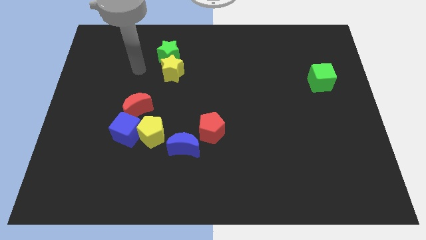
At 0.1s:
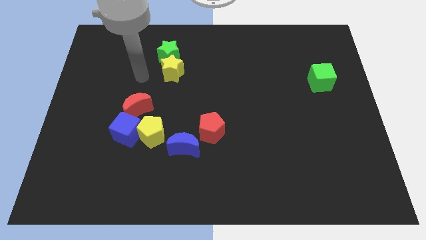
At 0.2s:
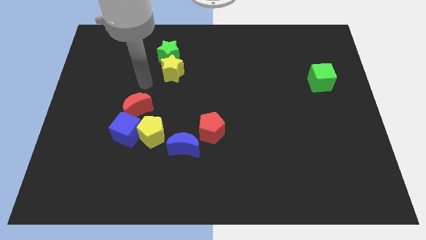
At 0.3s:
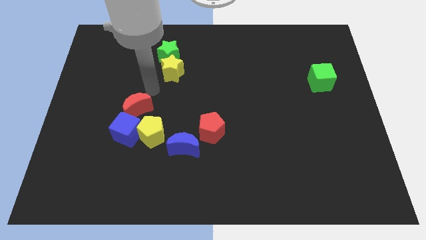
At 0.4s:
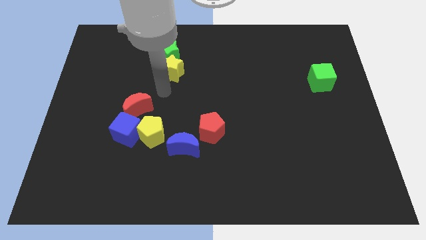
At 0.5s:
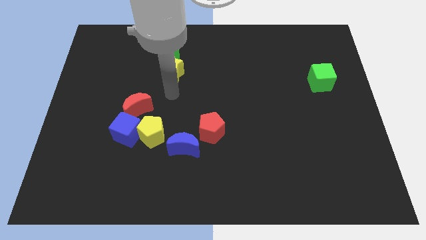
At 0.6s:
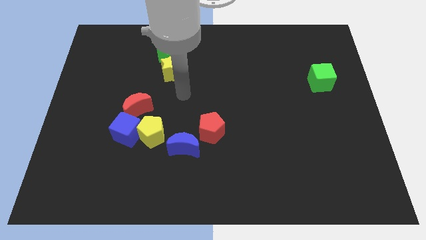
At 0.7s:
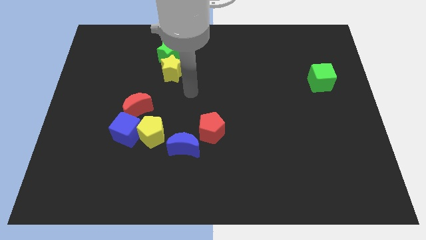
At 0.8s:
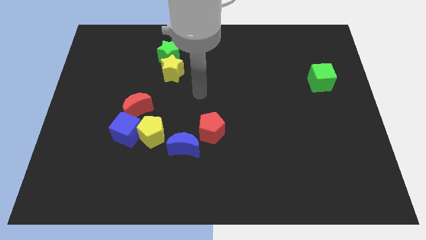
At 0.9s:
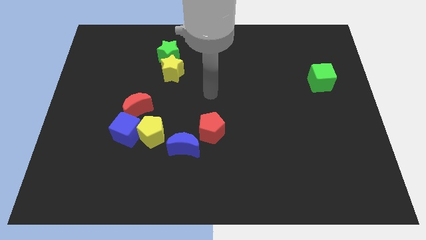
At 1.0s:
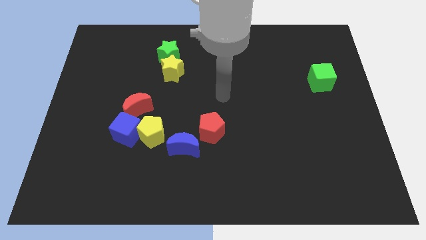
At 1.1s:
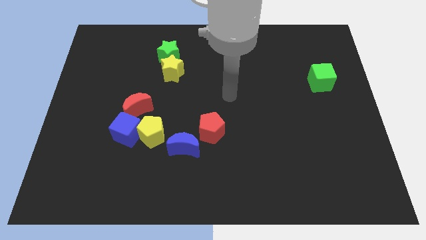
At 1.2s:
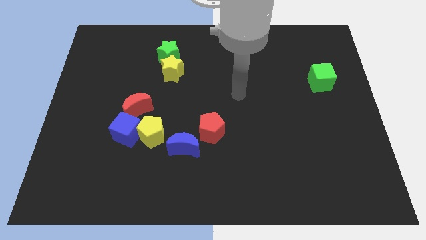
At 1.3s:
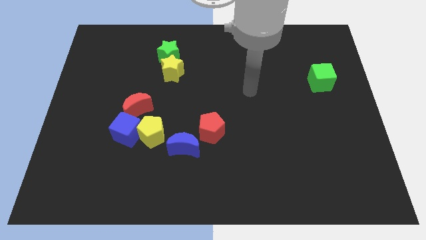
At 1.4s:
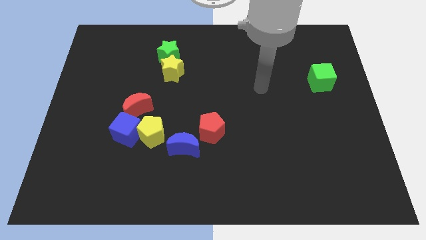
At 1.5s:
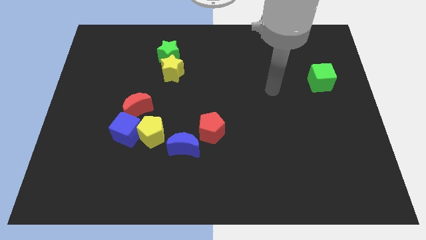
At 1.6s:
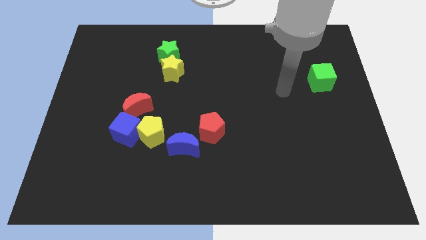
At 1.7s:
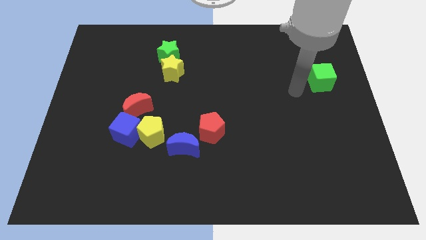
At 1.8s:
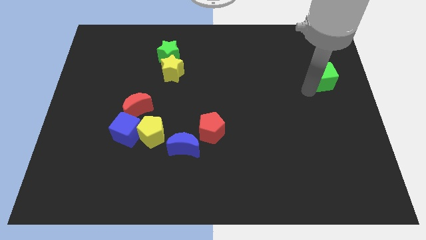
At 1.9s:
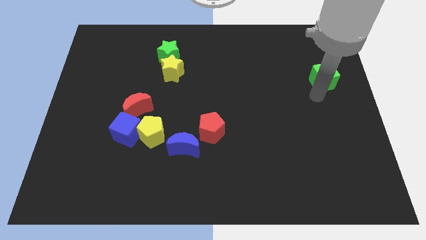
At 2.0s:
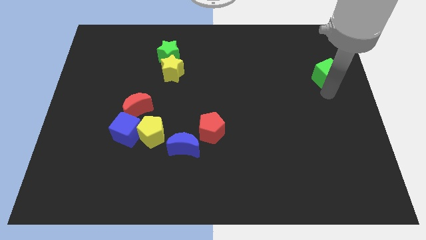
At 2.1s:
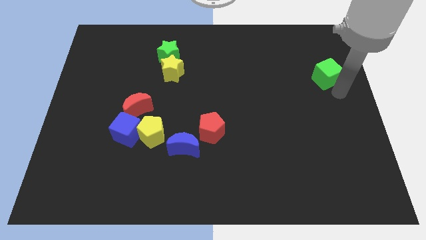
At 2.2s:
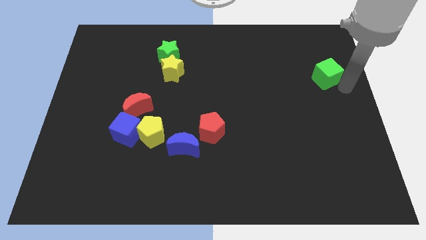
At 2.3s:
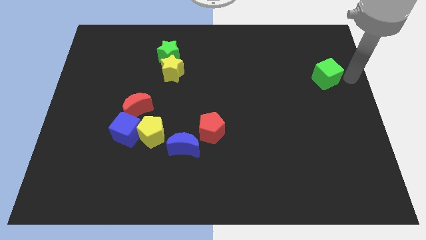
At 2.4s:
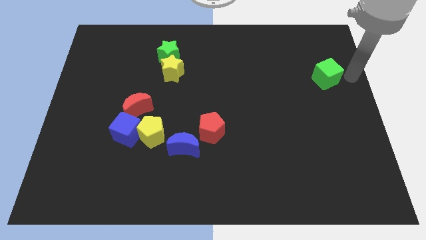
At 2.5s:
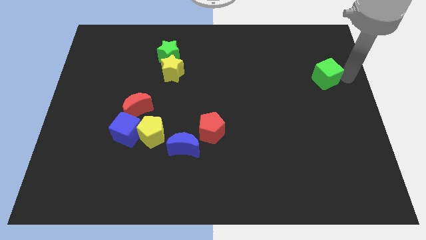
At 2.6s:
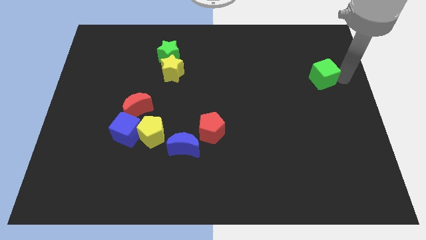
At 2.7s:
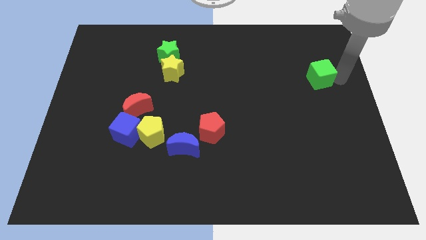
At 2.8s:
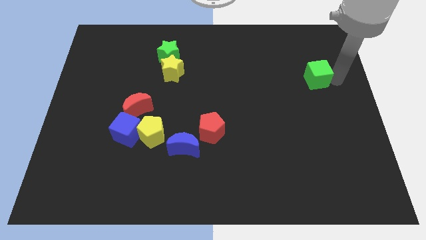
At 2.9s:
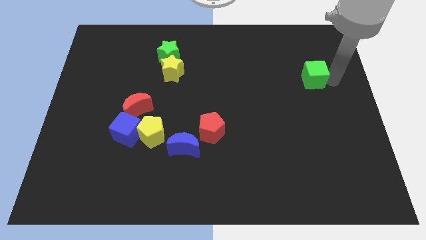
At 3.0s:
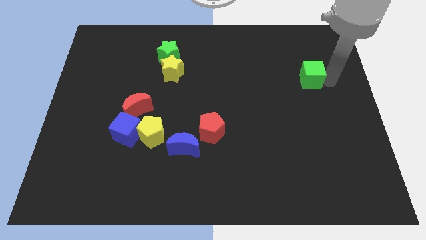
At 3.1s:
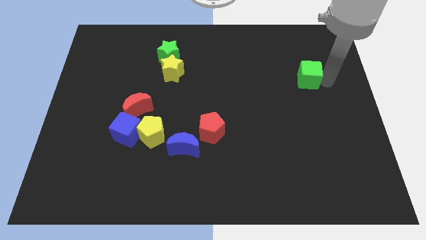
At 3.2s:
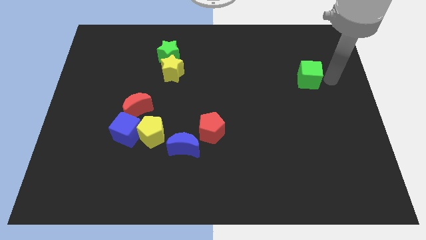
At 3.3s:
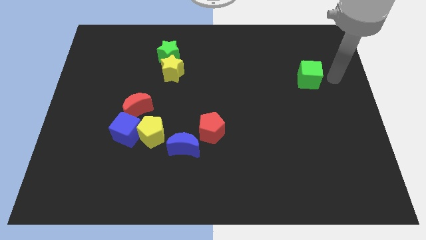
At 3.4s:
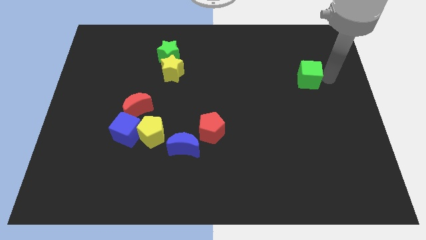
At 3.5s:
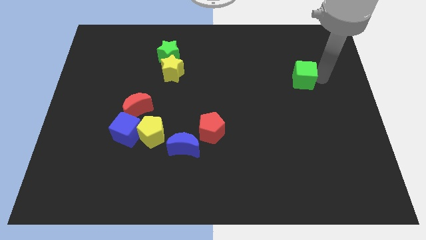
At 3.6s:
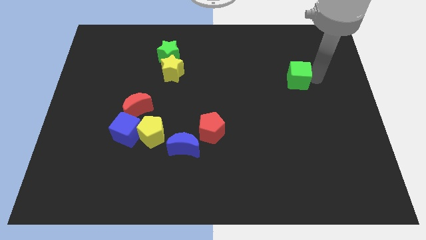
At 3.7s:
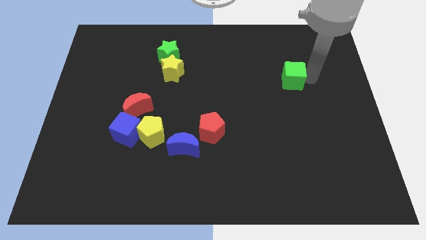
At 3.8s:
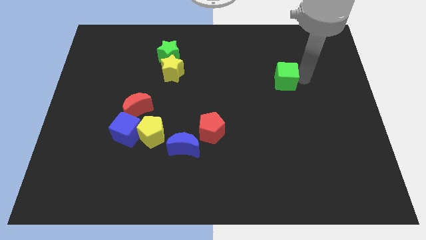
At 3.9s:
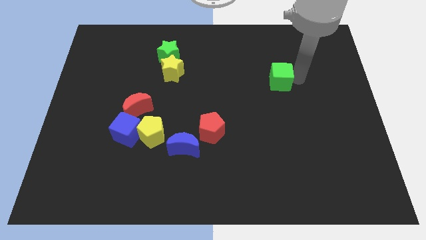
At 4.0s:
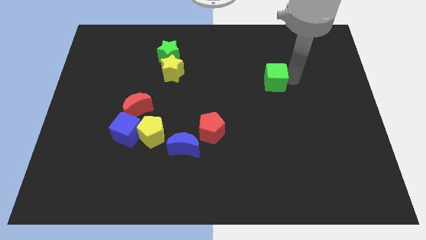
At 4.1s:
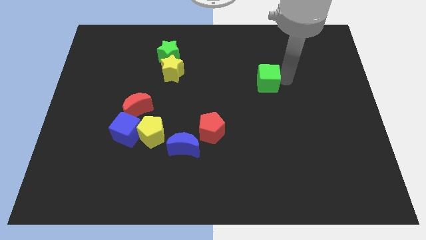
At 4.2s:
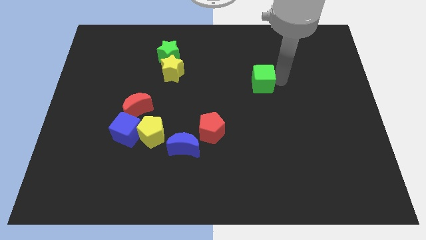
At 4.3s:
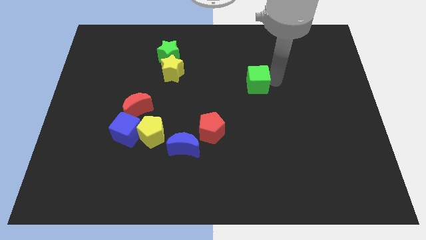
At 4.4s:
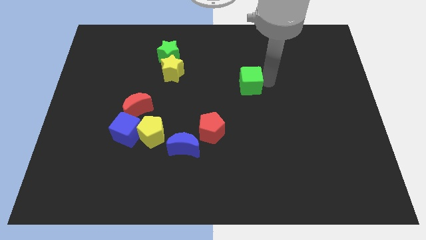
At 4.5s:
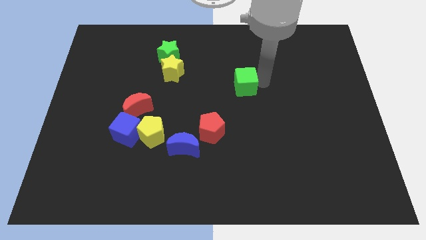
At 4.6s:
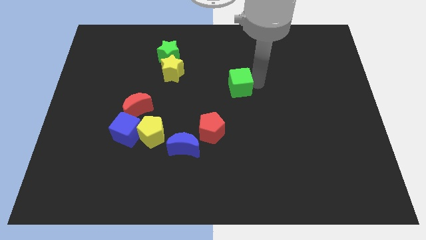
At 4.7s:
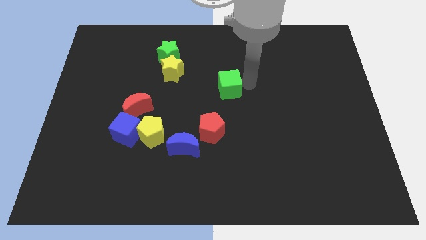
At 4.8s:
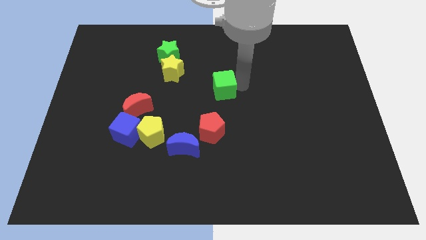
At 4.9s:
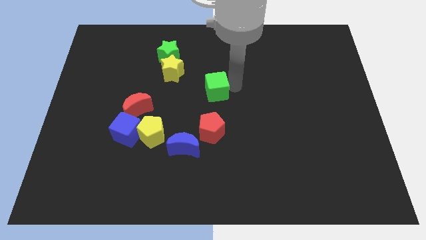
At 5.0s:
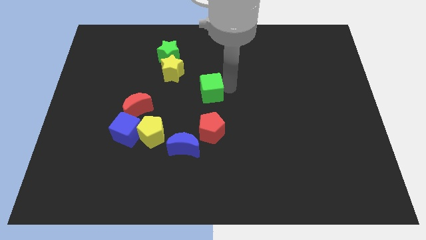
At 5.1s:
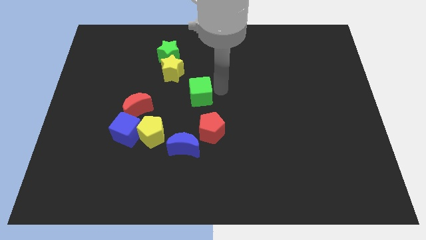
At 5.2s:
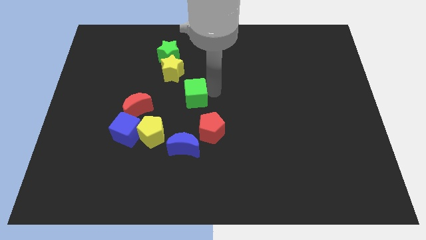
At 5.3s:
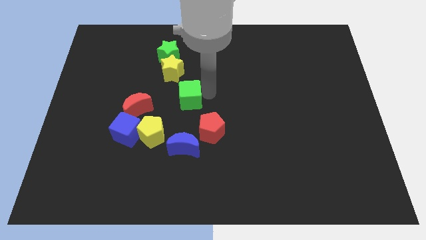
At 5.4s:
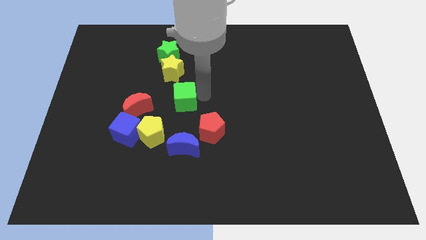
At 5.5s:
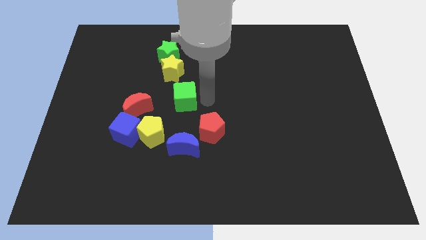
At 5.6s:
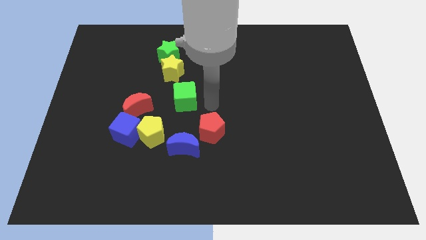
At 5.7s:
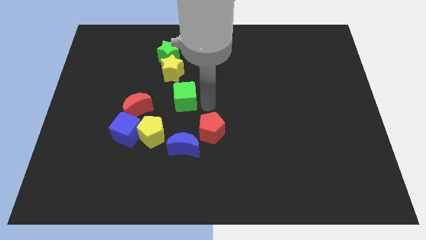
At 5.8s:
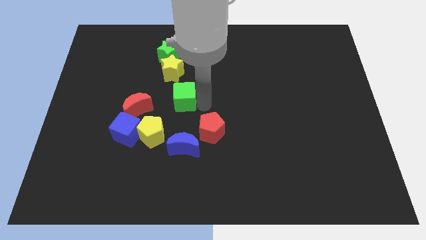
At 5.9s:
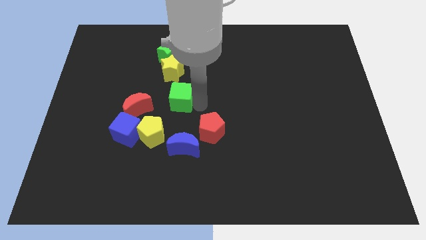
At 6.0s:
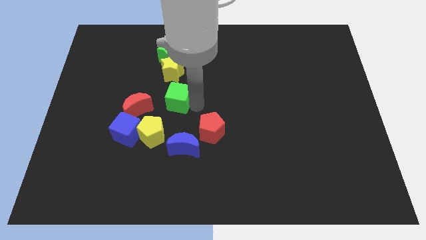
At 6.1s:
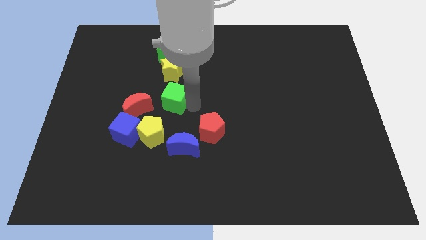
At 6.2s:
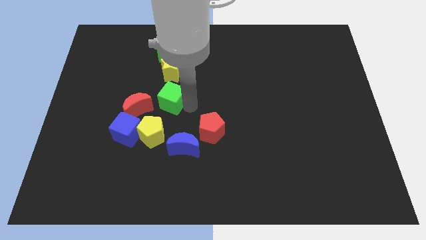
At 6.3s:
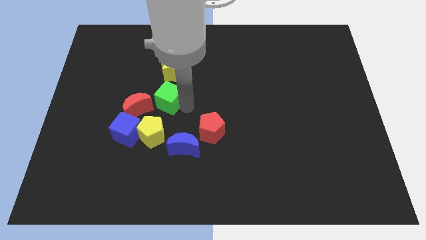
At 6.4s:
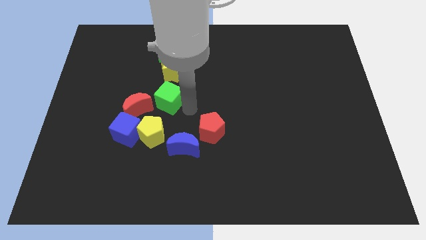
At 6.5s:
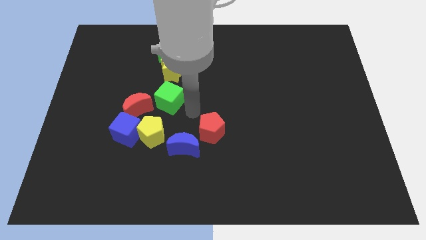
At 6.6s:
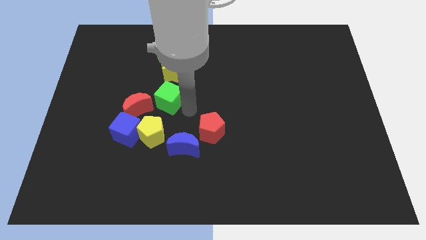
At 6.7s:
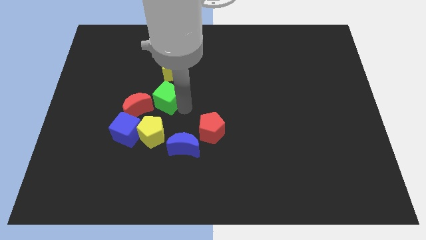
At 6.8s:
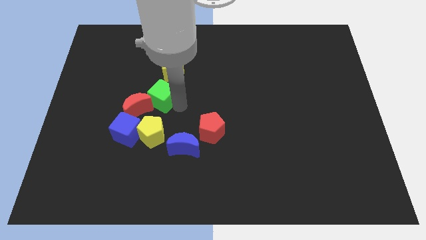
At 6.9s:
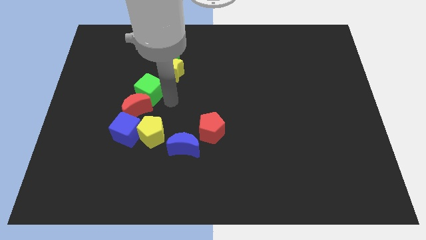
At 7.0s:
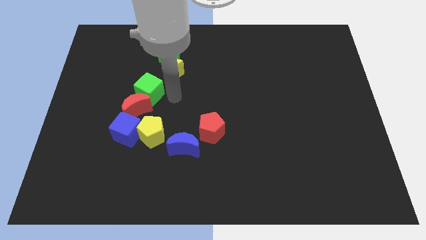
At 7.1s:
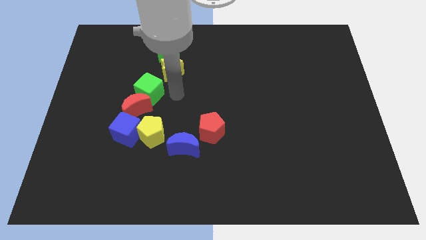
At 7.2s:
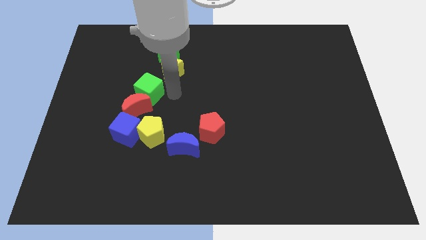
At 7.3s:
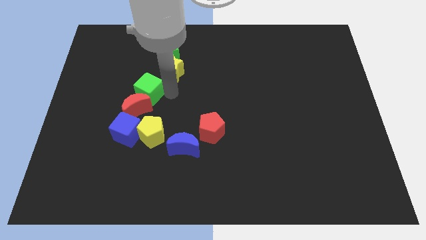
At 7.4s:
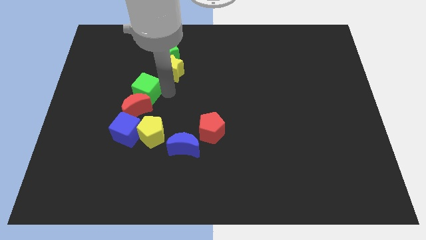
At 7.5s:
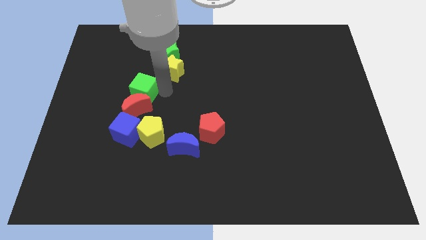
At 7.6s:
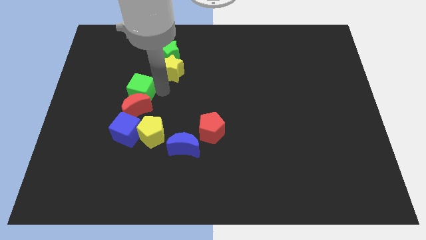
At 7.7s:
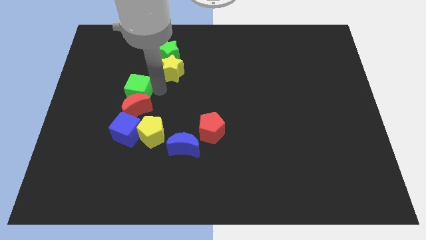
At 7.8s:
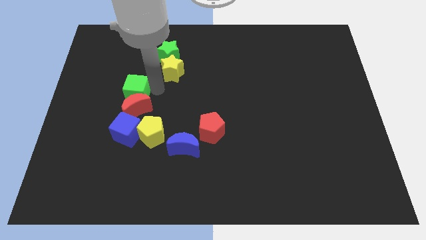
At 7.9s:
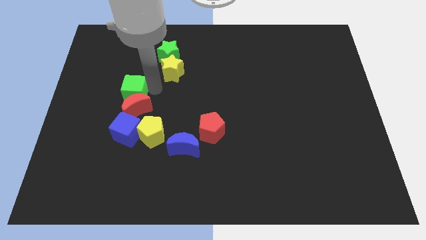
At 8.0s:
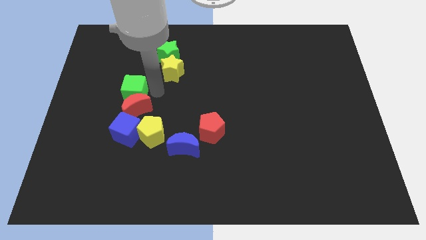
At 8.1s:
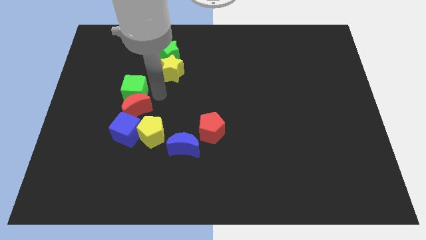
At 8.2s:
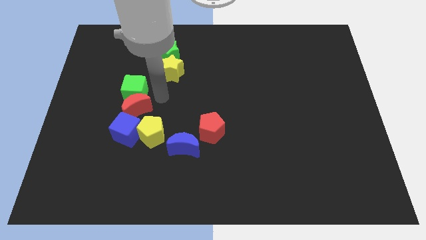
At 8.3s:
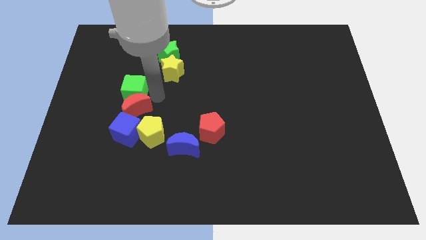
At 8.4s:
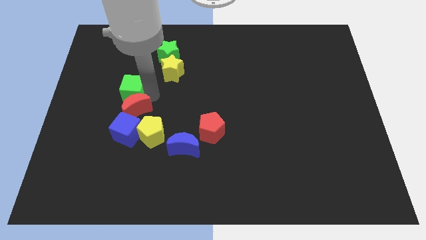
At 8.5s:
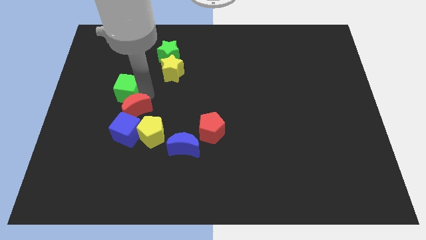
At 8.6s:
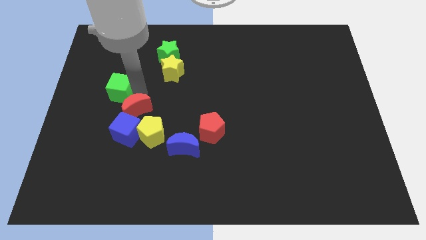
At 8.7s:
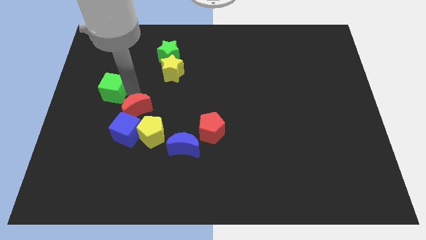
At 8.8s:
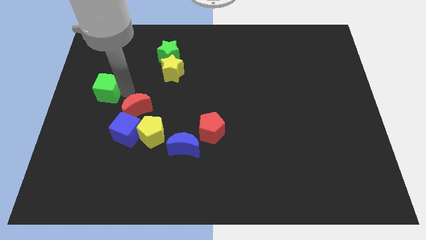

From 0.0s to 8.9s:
slide the green cube to the center left
